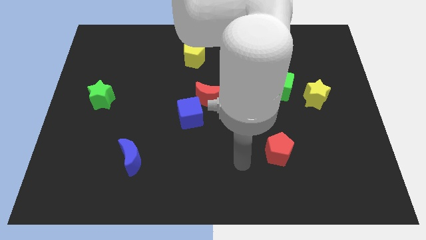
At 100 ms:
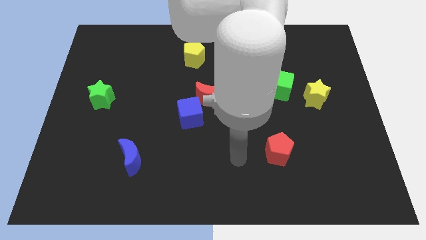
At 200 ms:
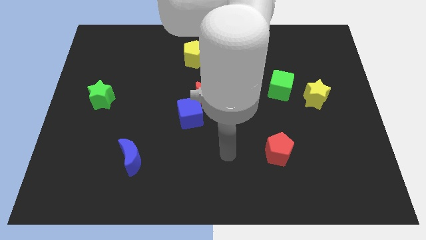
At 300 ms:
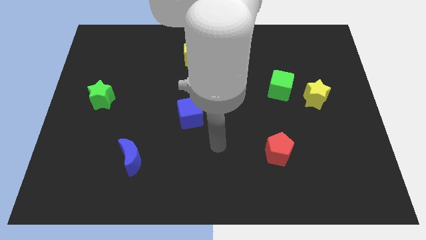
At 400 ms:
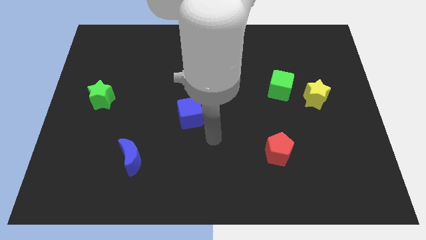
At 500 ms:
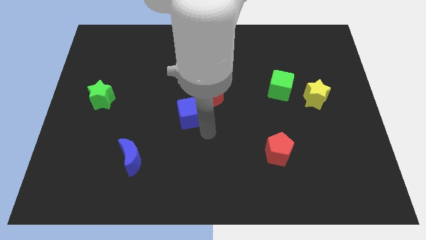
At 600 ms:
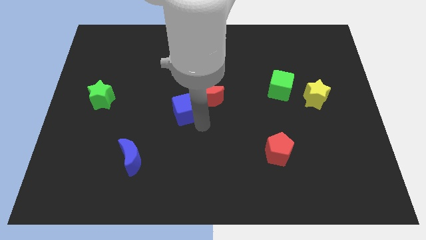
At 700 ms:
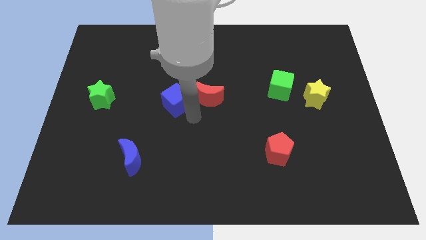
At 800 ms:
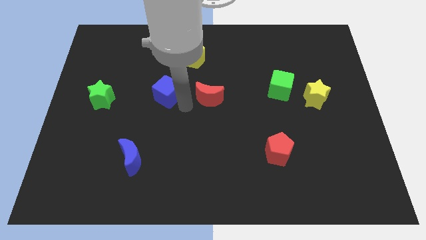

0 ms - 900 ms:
pull the red moon apart from the blue cube

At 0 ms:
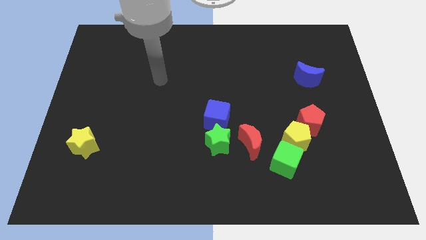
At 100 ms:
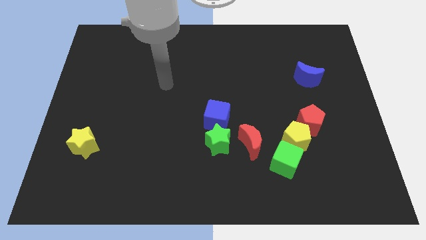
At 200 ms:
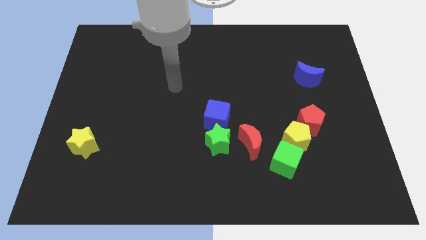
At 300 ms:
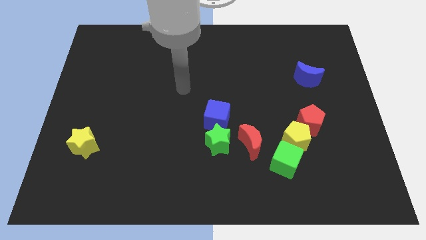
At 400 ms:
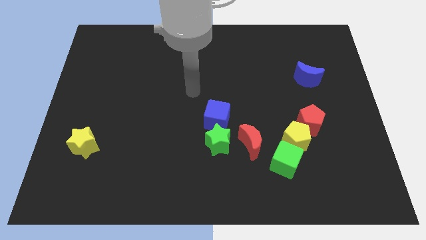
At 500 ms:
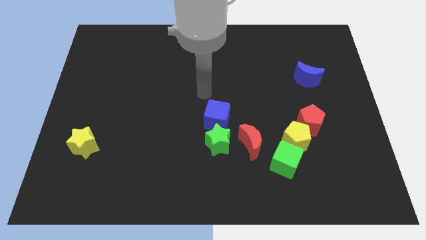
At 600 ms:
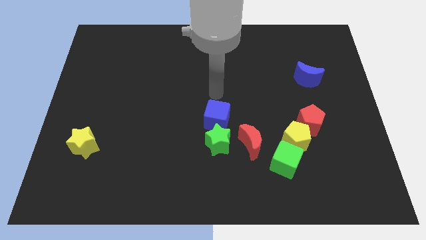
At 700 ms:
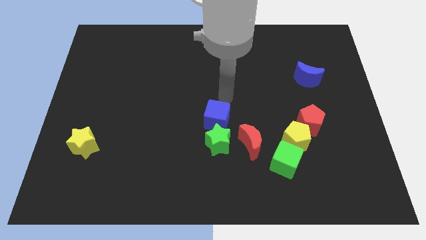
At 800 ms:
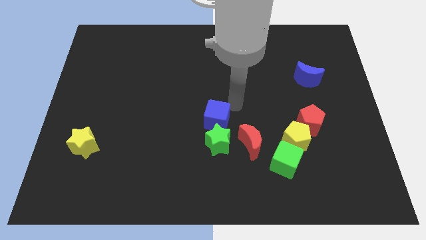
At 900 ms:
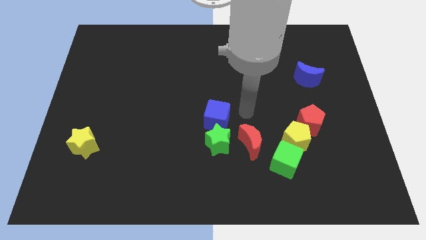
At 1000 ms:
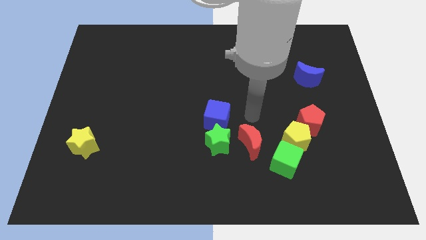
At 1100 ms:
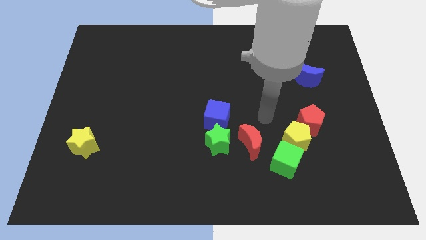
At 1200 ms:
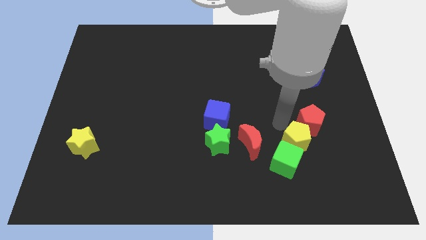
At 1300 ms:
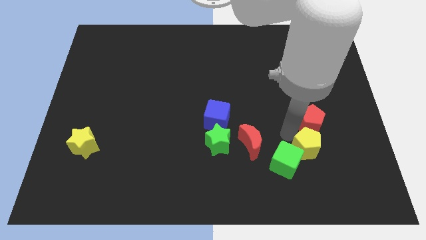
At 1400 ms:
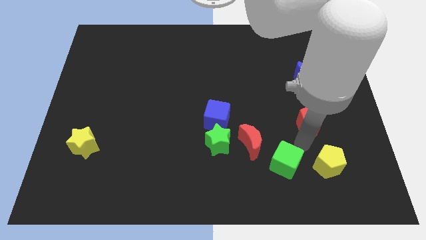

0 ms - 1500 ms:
pull the red pentagon apart from the yellow pentagon

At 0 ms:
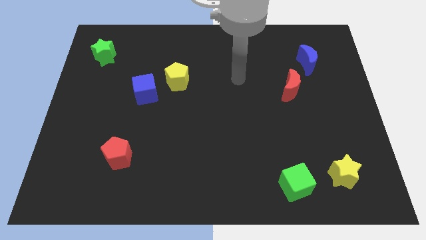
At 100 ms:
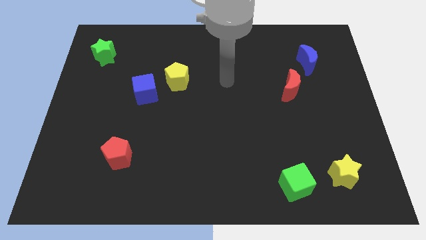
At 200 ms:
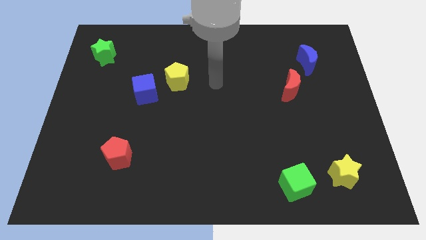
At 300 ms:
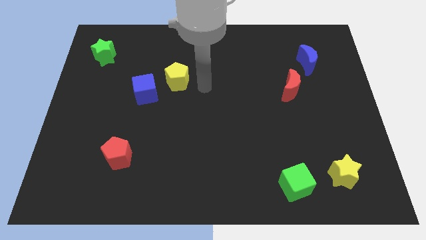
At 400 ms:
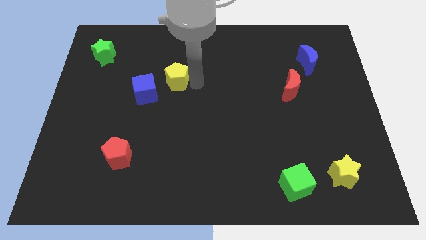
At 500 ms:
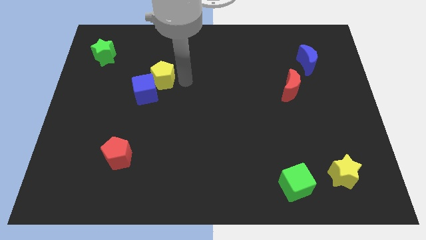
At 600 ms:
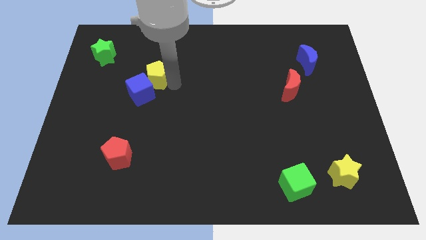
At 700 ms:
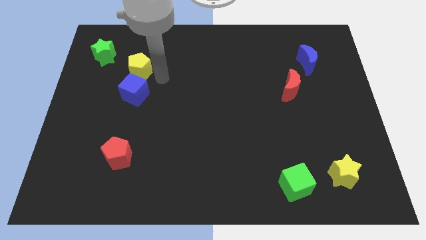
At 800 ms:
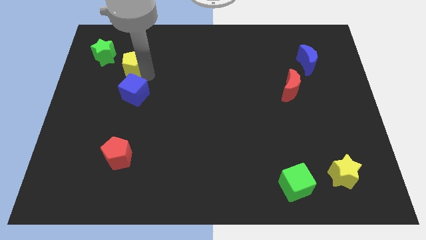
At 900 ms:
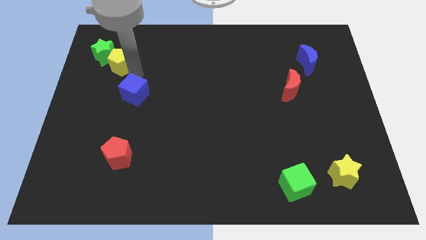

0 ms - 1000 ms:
separate the blue cube from the yellow pentagon

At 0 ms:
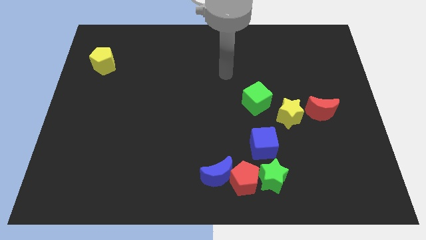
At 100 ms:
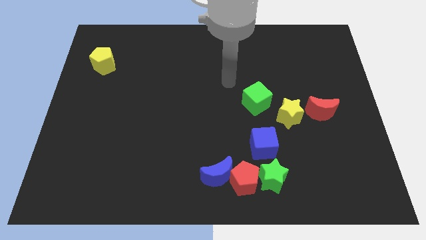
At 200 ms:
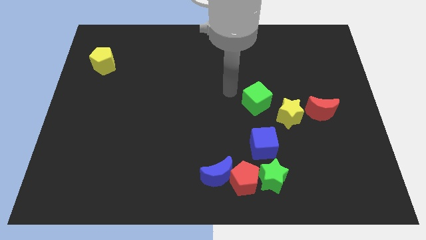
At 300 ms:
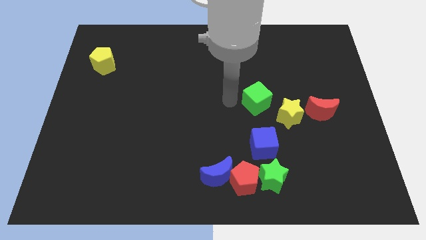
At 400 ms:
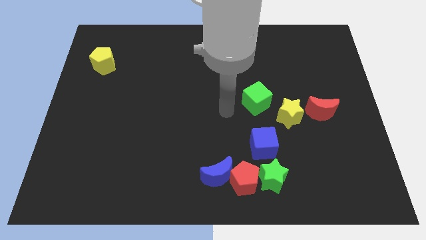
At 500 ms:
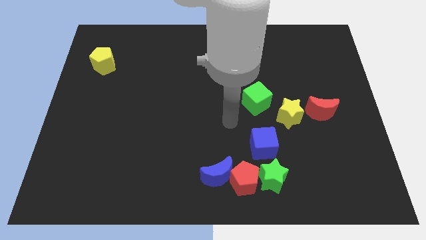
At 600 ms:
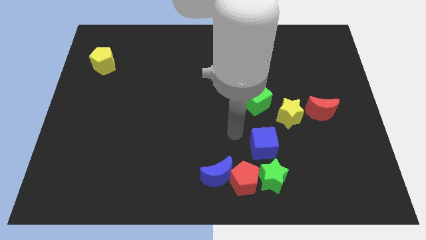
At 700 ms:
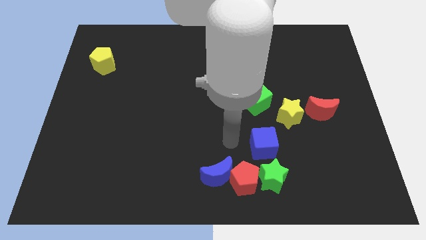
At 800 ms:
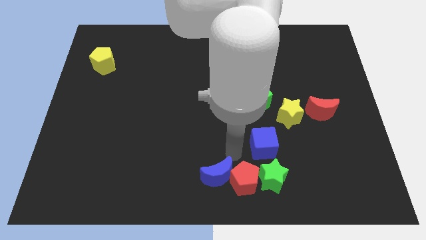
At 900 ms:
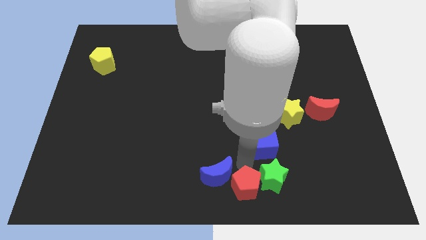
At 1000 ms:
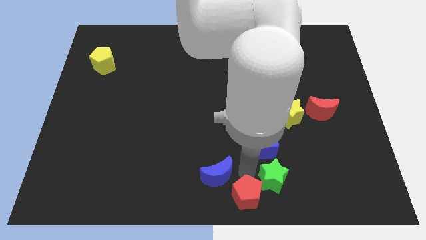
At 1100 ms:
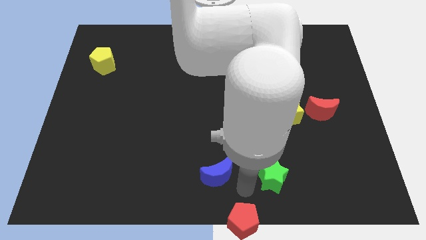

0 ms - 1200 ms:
move the blue moon away from the red pentagon

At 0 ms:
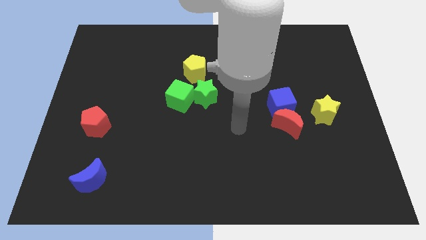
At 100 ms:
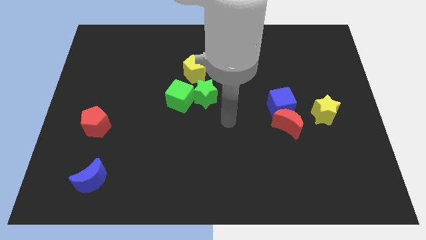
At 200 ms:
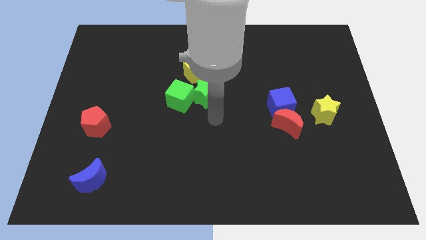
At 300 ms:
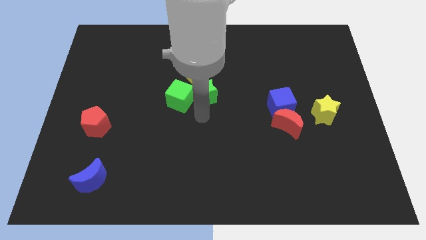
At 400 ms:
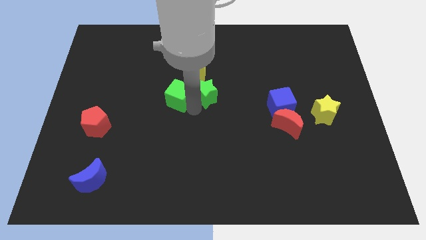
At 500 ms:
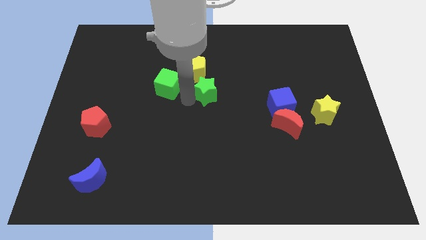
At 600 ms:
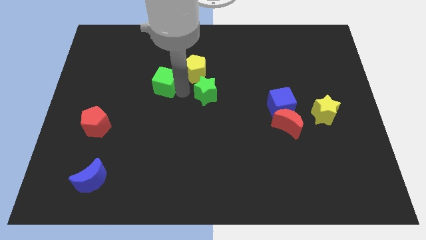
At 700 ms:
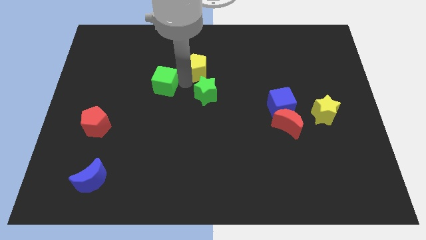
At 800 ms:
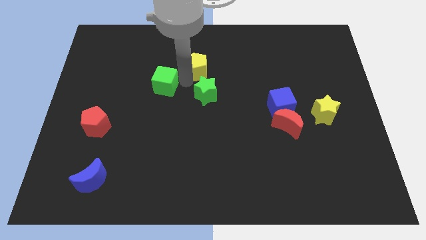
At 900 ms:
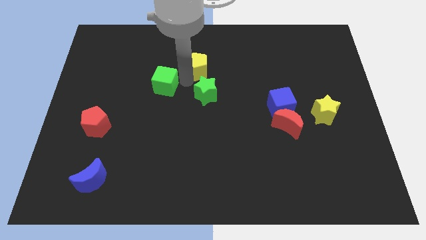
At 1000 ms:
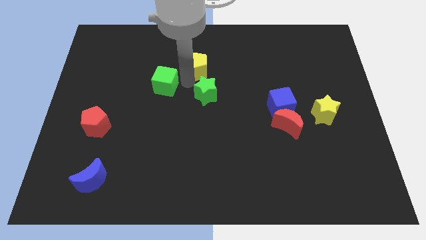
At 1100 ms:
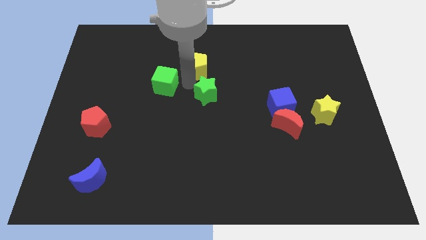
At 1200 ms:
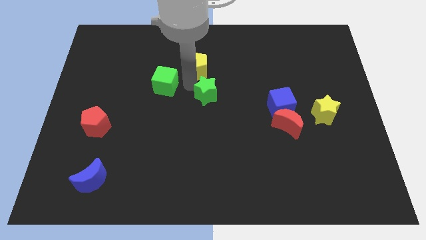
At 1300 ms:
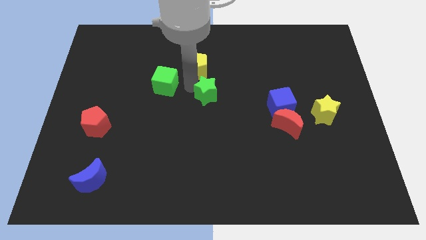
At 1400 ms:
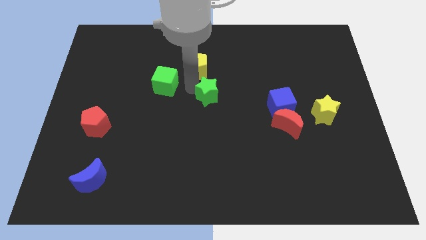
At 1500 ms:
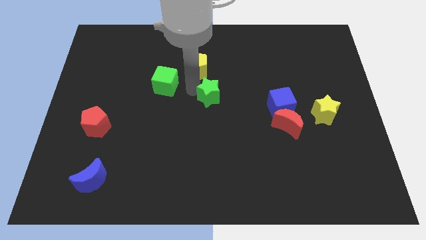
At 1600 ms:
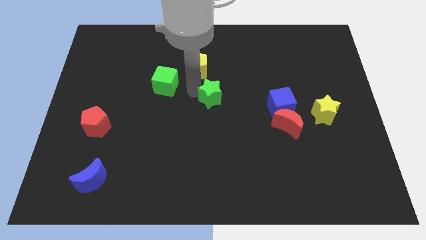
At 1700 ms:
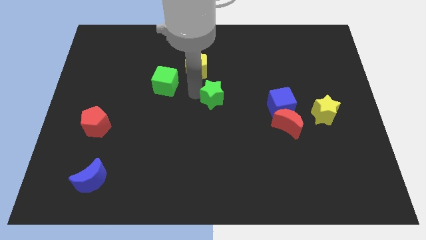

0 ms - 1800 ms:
pull the green star apart from the green cube and yellow pentagon

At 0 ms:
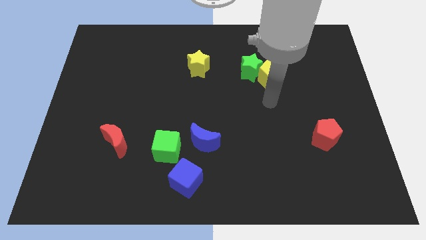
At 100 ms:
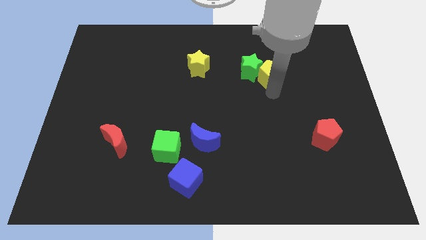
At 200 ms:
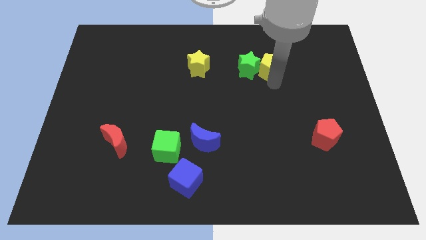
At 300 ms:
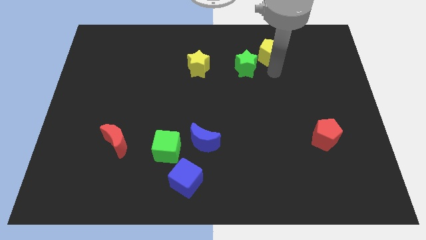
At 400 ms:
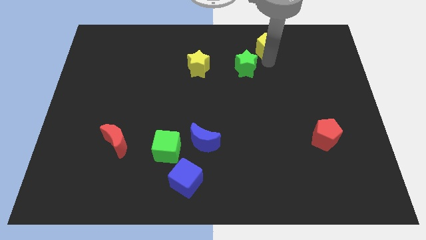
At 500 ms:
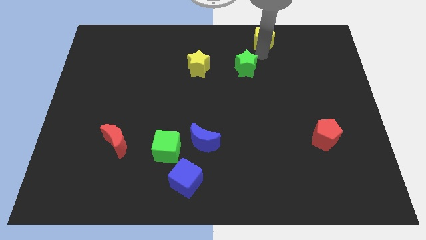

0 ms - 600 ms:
move the green star away from the yellow pentagon

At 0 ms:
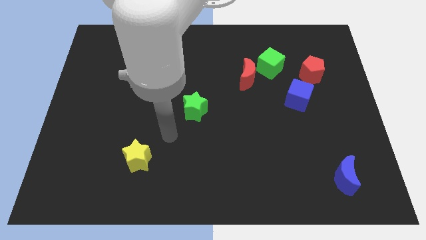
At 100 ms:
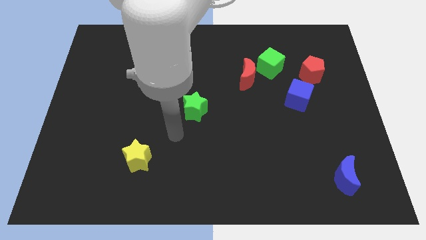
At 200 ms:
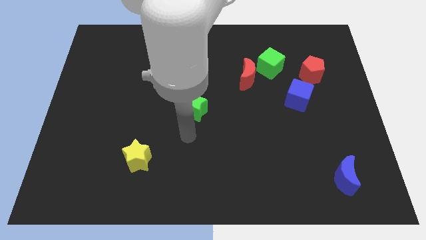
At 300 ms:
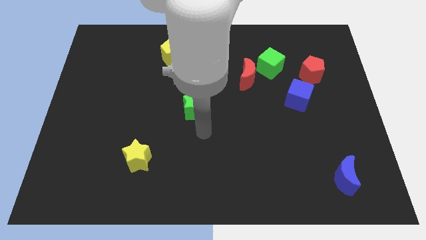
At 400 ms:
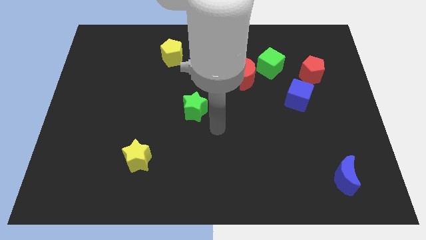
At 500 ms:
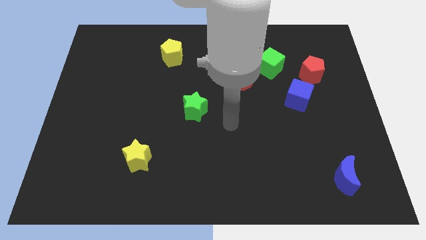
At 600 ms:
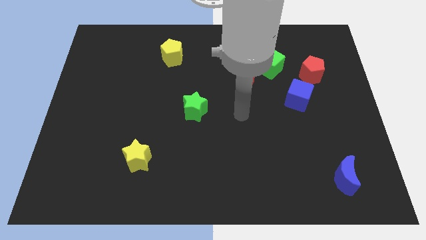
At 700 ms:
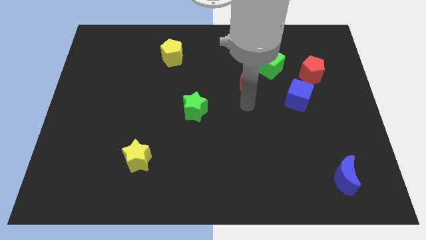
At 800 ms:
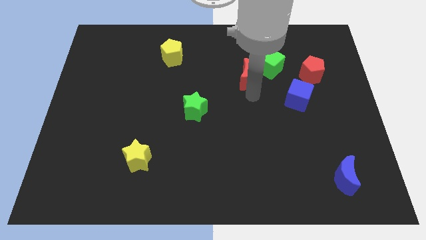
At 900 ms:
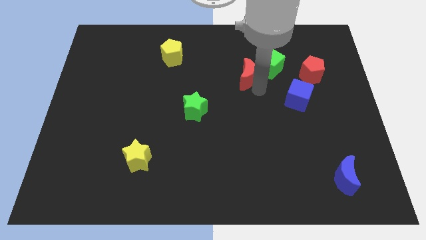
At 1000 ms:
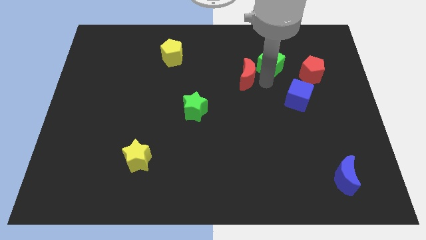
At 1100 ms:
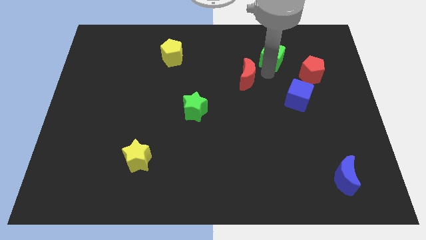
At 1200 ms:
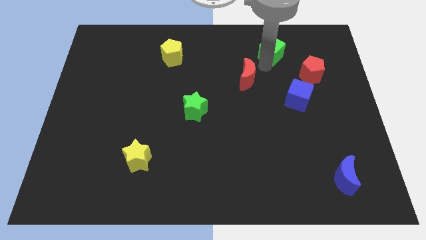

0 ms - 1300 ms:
separate the red moon from the green cube

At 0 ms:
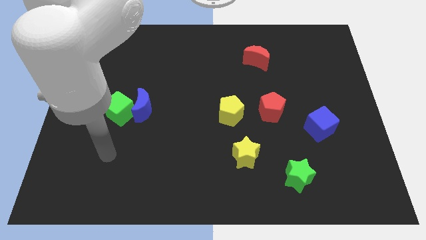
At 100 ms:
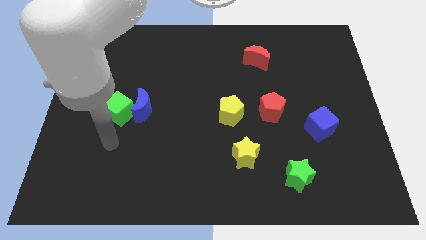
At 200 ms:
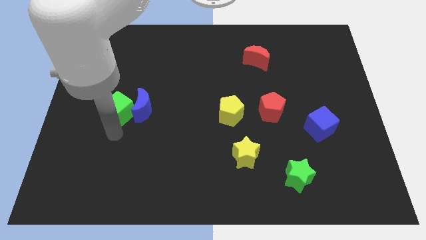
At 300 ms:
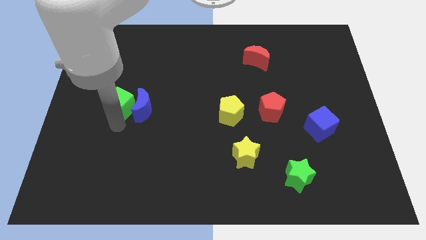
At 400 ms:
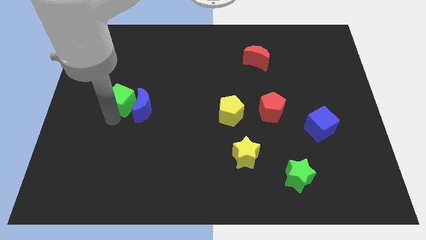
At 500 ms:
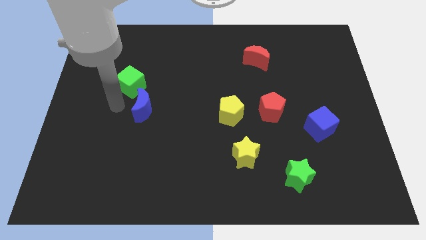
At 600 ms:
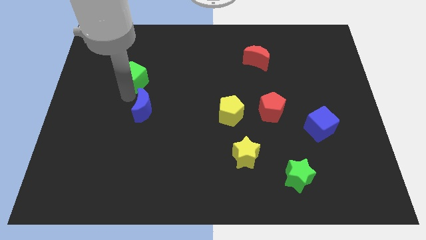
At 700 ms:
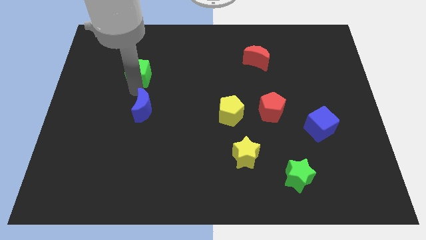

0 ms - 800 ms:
pull the blue moon apart from the green cube

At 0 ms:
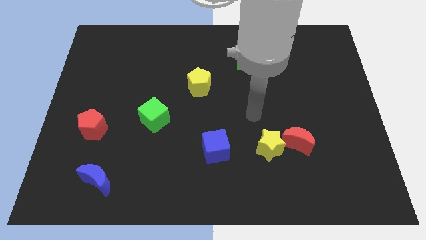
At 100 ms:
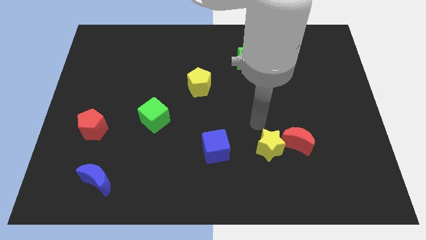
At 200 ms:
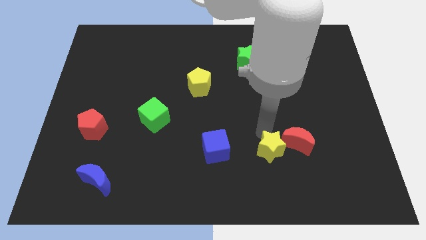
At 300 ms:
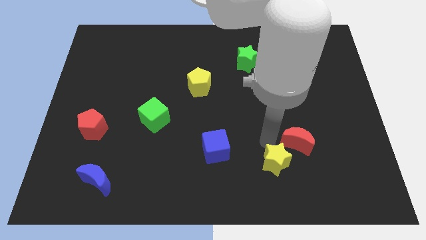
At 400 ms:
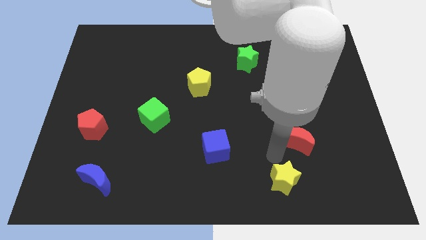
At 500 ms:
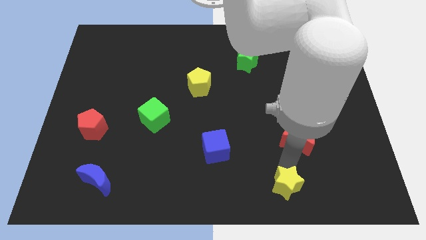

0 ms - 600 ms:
separate the red moon from the yellow star
